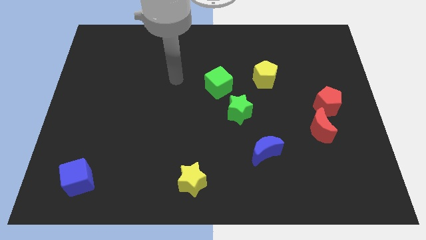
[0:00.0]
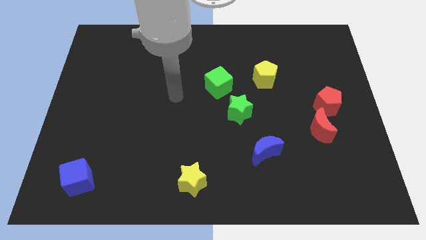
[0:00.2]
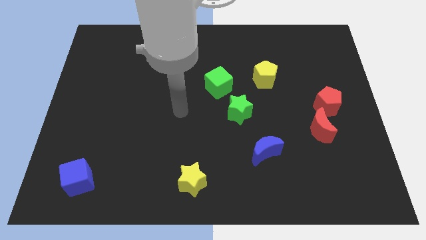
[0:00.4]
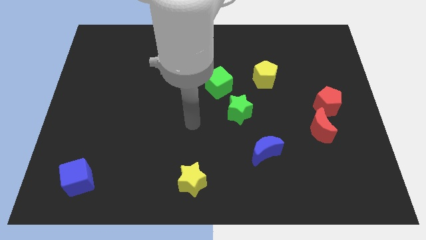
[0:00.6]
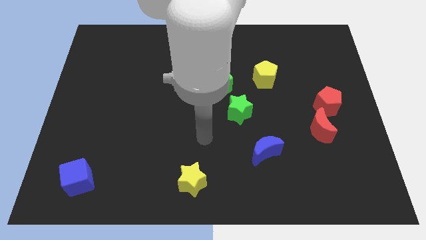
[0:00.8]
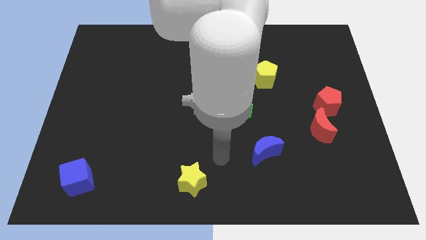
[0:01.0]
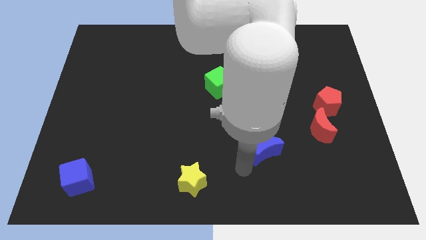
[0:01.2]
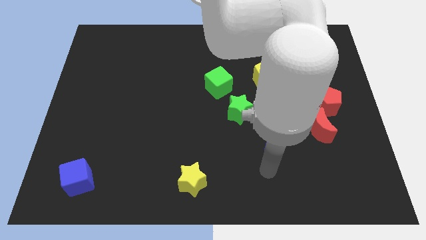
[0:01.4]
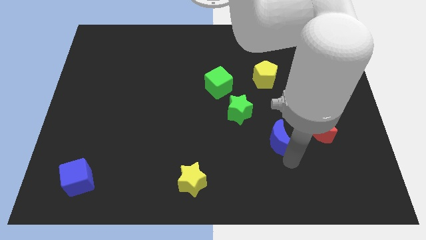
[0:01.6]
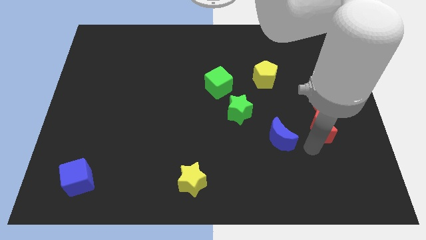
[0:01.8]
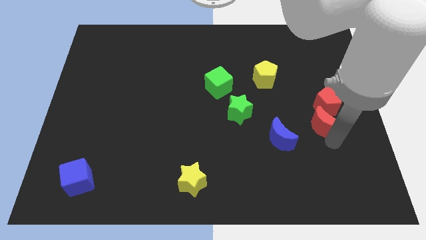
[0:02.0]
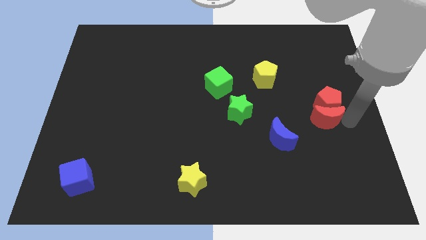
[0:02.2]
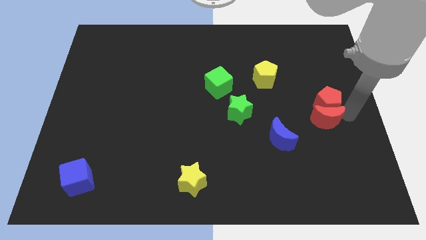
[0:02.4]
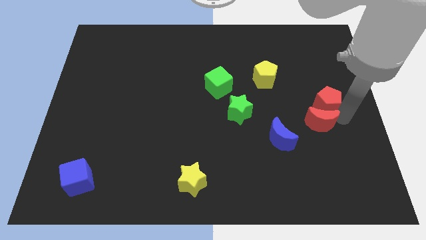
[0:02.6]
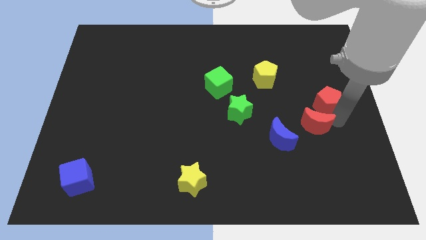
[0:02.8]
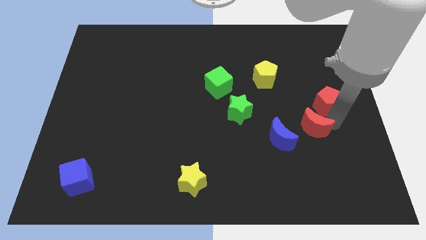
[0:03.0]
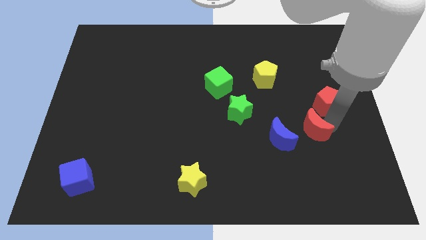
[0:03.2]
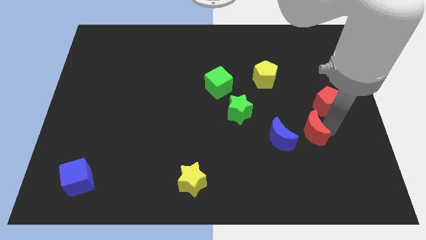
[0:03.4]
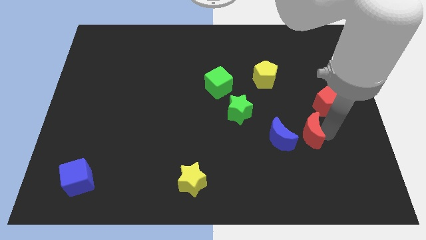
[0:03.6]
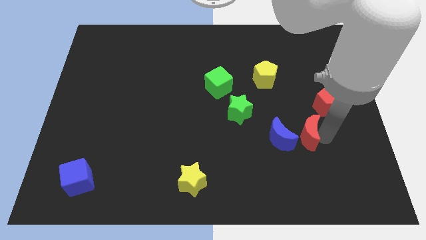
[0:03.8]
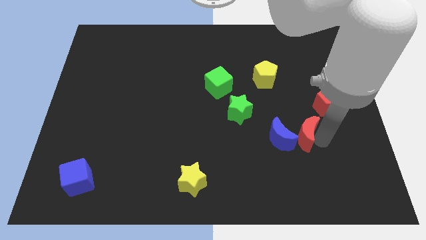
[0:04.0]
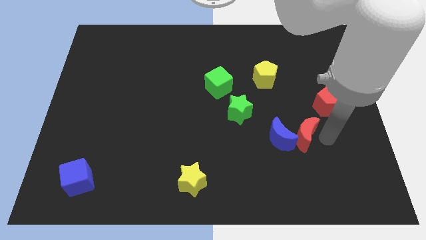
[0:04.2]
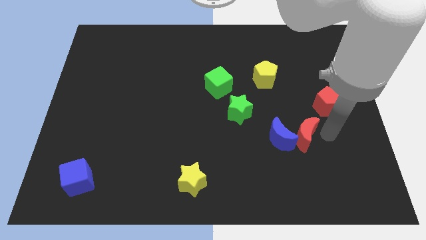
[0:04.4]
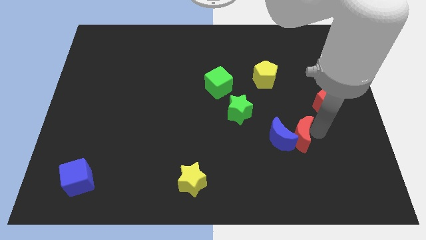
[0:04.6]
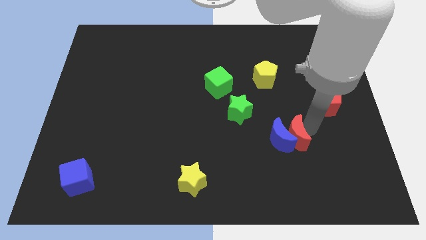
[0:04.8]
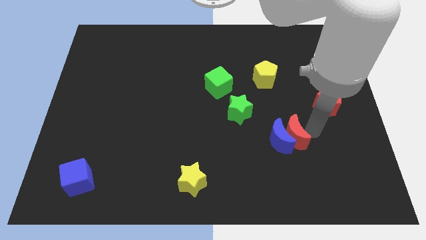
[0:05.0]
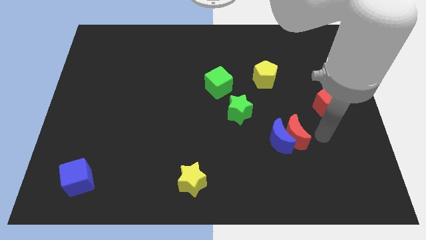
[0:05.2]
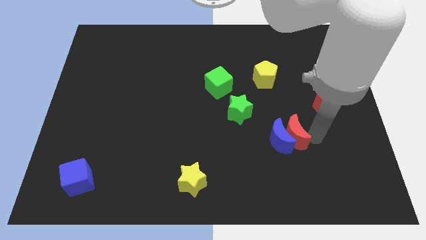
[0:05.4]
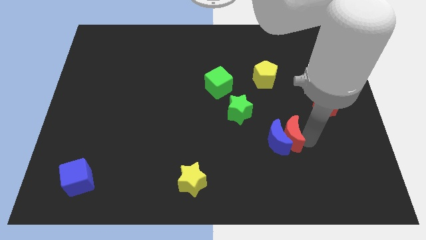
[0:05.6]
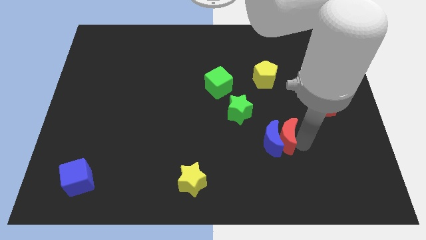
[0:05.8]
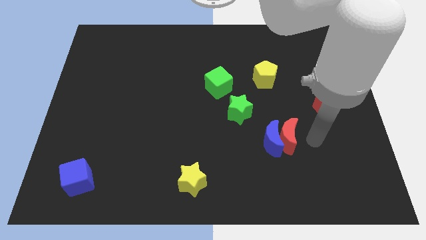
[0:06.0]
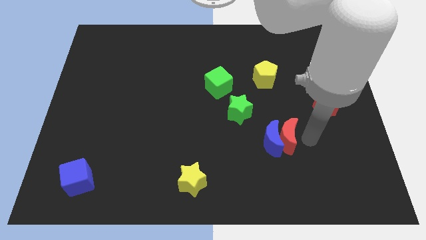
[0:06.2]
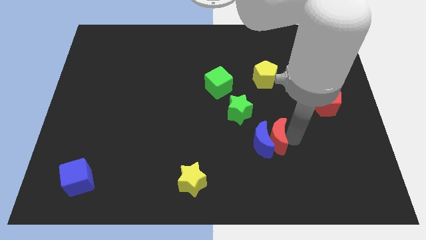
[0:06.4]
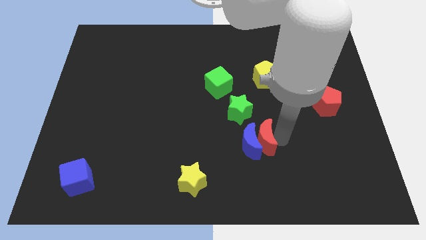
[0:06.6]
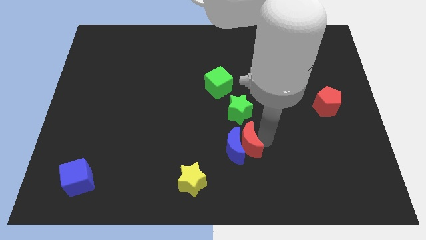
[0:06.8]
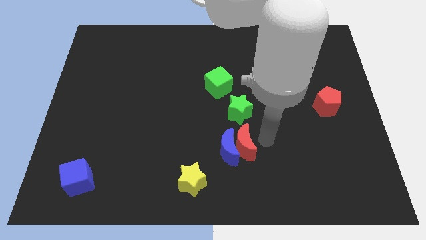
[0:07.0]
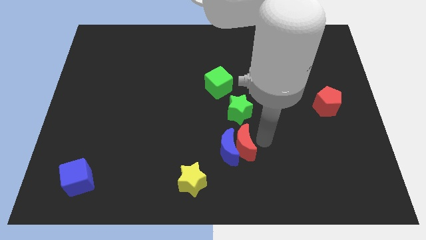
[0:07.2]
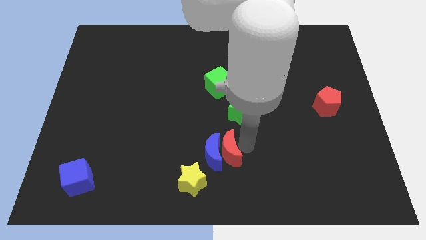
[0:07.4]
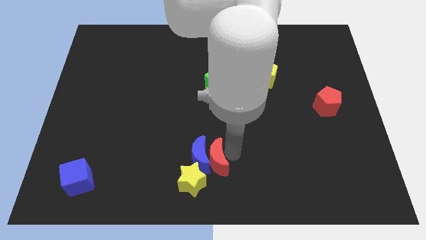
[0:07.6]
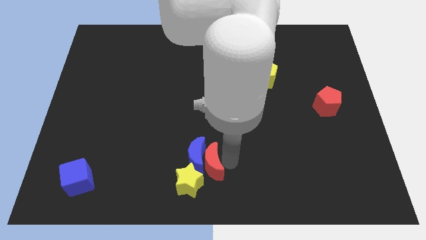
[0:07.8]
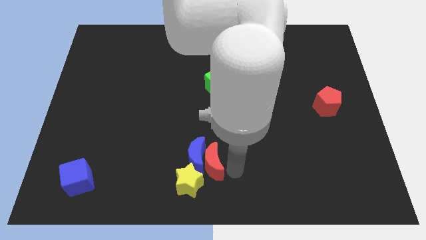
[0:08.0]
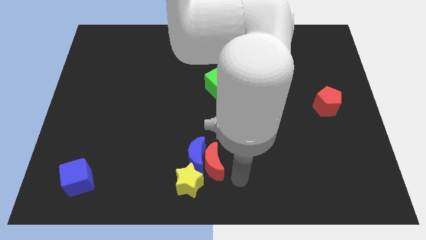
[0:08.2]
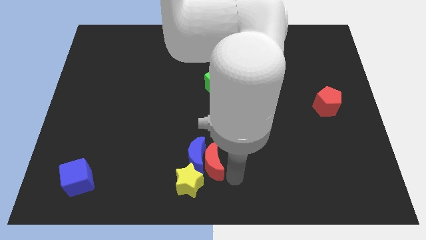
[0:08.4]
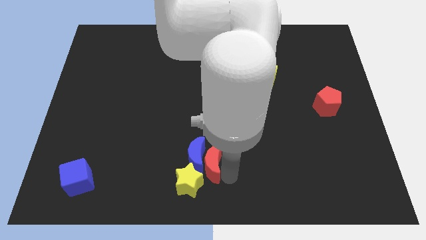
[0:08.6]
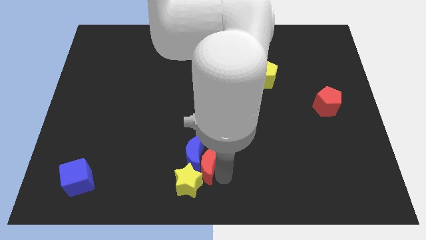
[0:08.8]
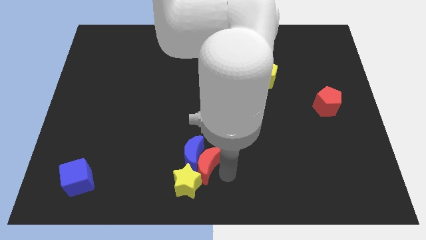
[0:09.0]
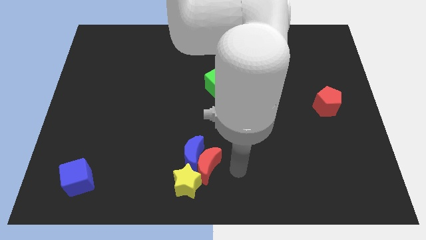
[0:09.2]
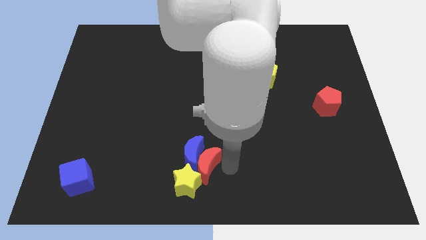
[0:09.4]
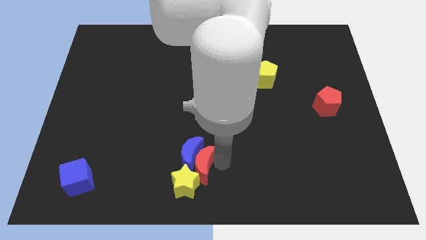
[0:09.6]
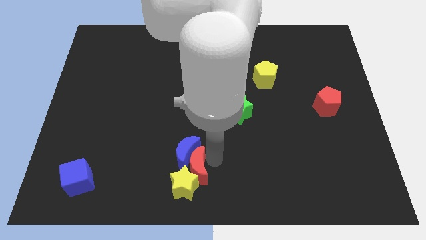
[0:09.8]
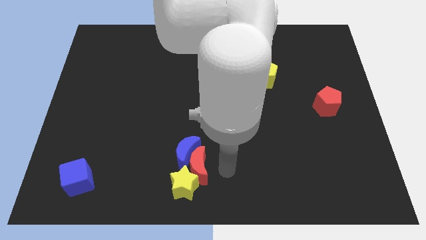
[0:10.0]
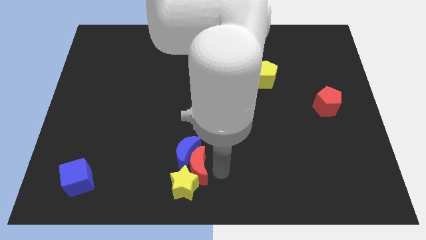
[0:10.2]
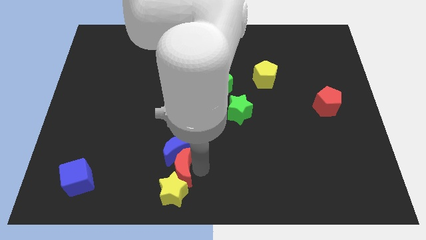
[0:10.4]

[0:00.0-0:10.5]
slide the red moon diagonally up and to the left of the yellow star

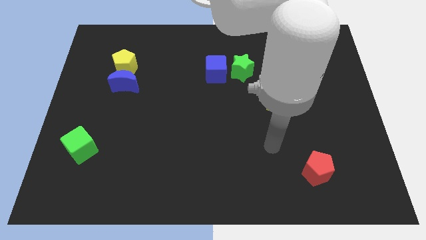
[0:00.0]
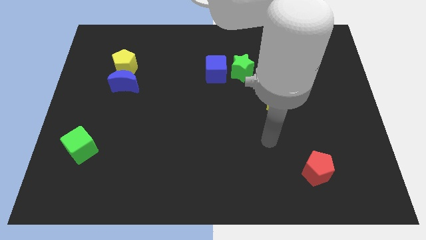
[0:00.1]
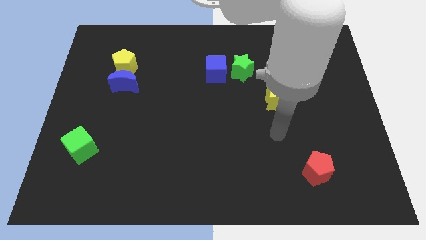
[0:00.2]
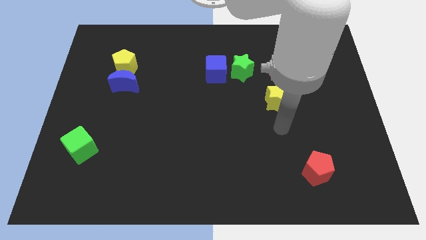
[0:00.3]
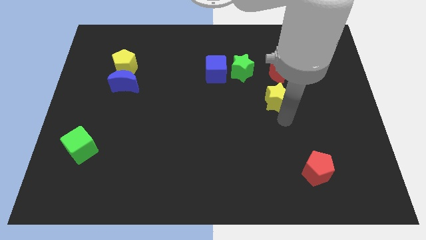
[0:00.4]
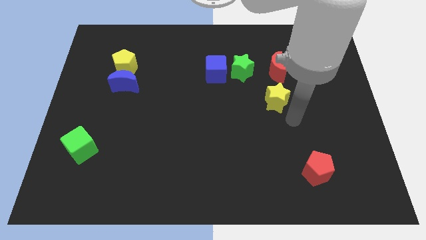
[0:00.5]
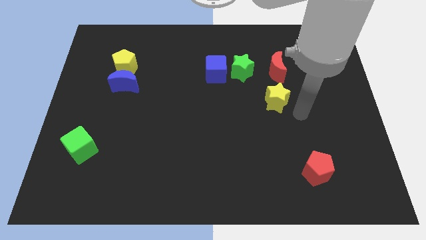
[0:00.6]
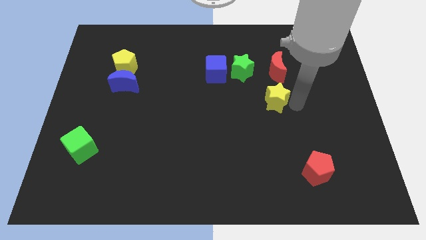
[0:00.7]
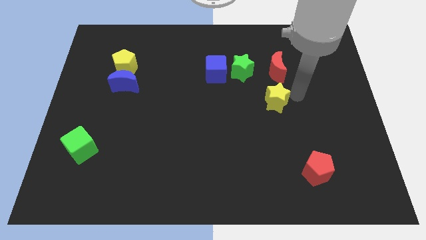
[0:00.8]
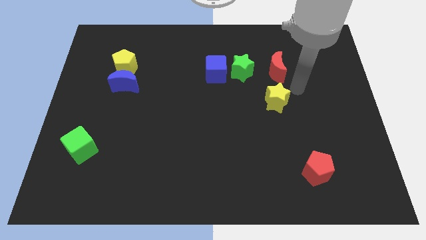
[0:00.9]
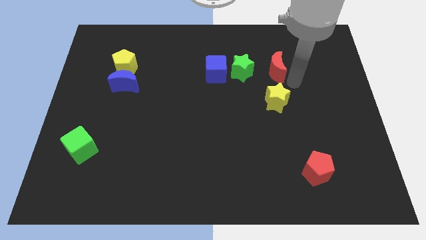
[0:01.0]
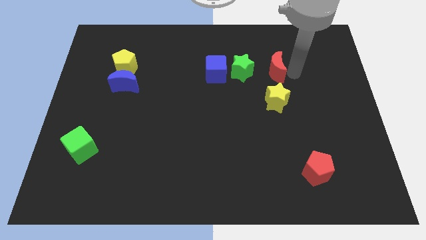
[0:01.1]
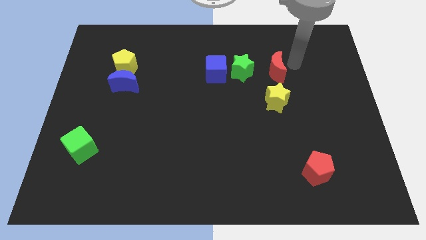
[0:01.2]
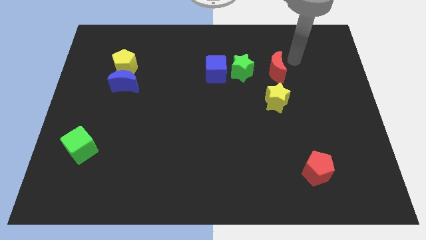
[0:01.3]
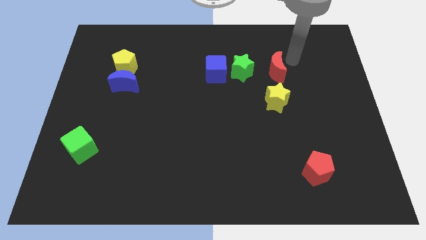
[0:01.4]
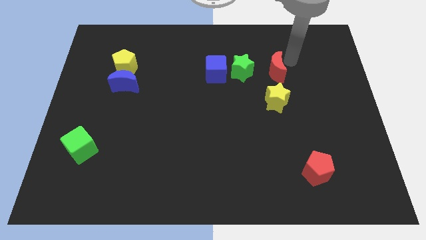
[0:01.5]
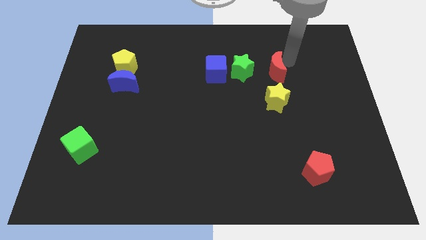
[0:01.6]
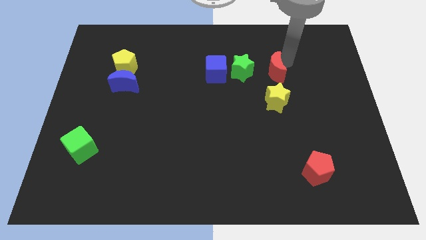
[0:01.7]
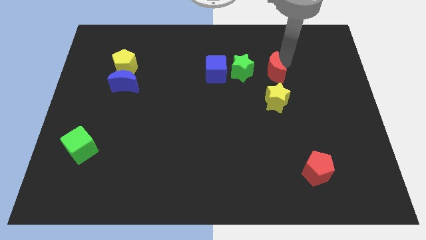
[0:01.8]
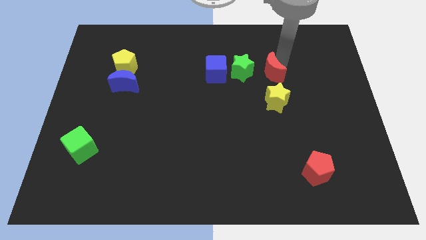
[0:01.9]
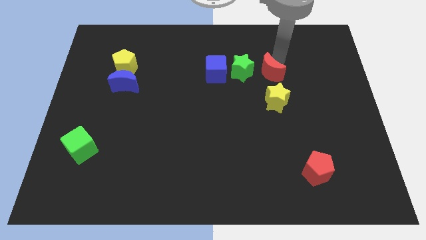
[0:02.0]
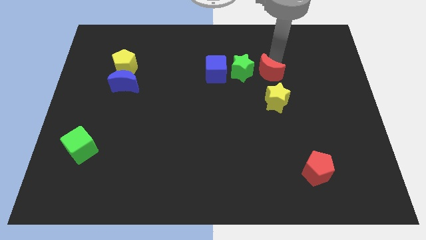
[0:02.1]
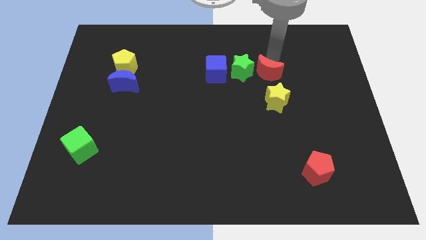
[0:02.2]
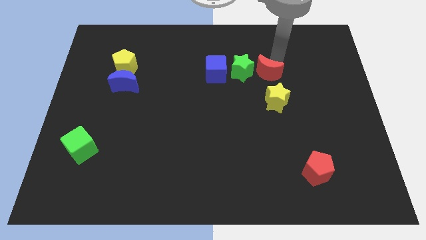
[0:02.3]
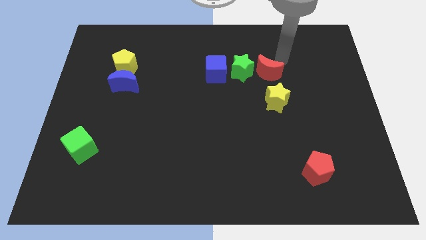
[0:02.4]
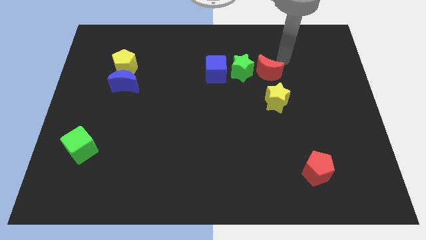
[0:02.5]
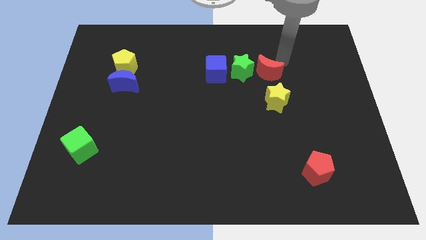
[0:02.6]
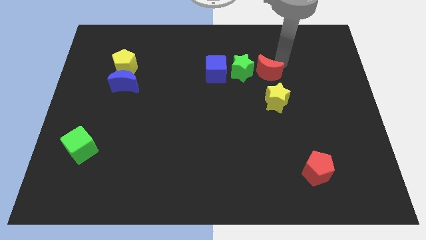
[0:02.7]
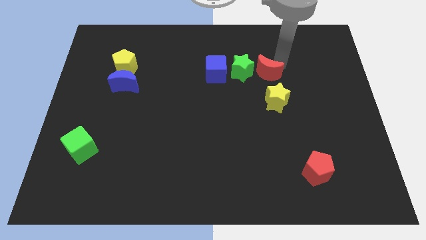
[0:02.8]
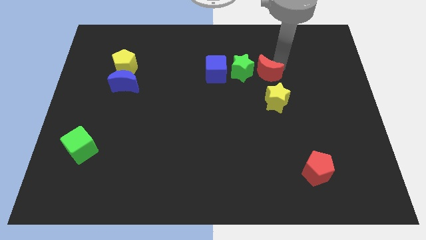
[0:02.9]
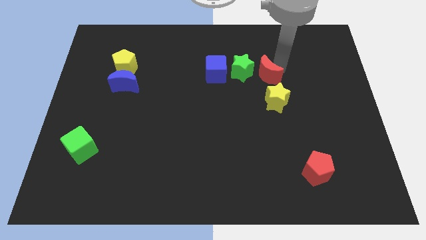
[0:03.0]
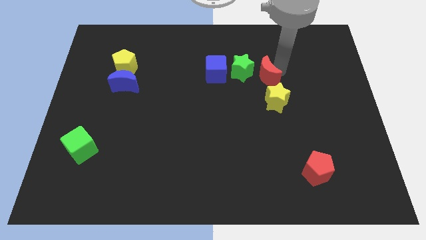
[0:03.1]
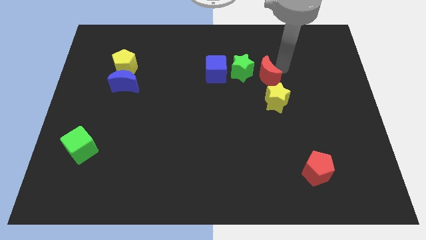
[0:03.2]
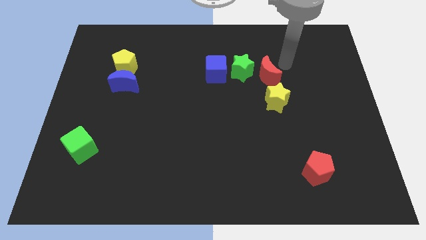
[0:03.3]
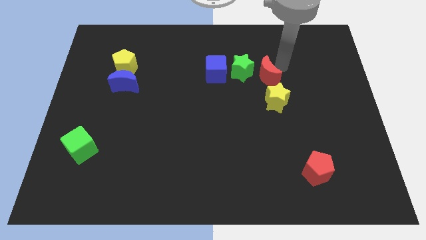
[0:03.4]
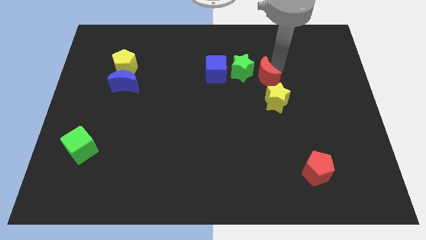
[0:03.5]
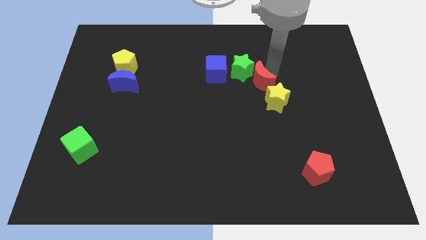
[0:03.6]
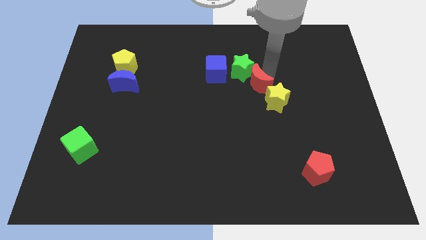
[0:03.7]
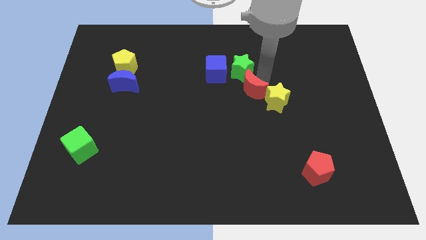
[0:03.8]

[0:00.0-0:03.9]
push the red moon to the left of the yellow star
